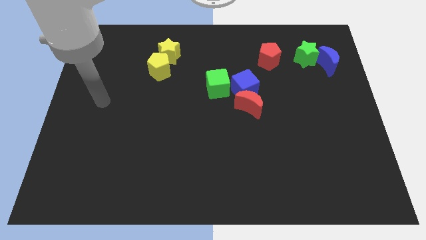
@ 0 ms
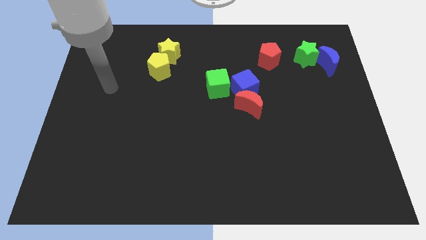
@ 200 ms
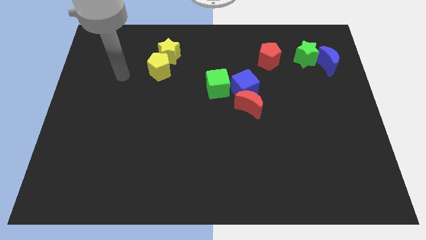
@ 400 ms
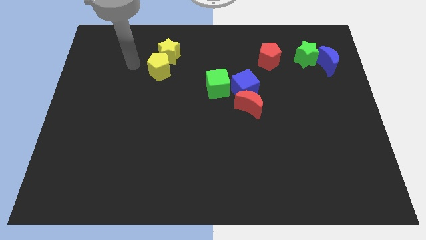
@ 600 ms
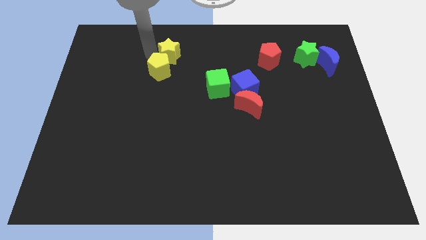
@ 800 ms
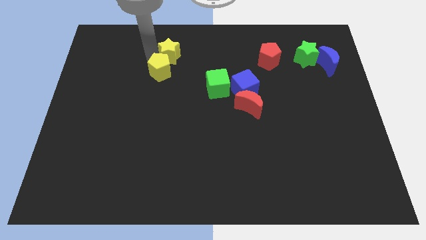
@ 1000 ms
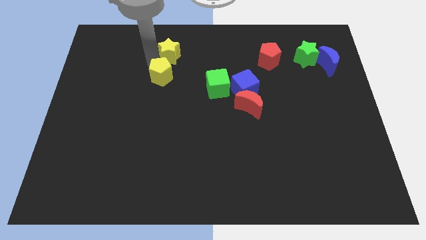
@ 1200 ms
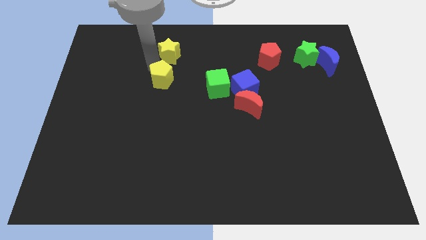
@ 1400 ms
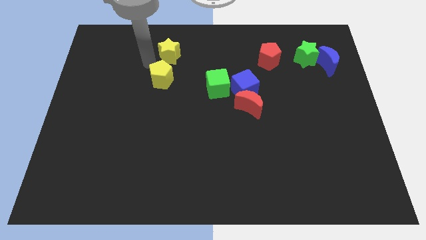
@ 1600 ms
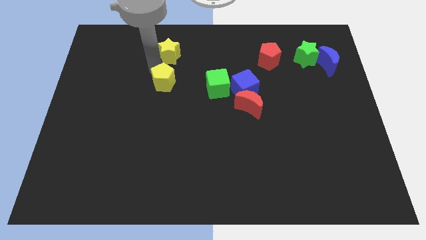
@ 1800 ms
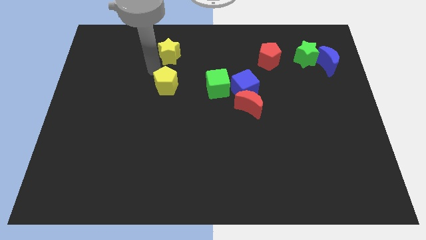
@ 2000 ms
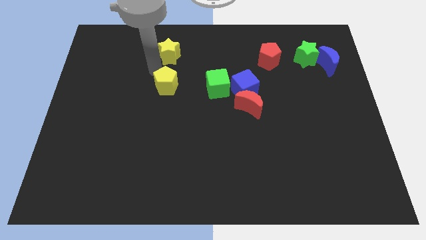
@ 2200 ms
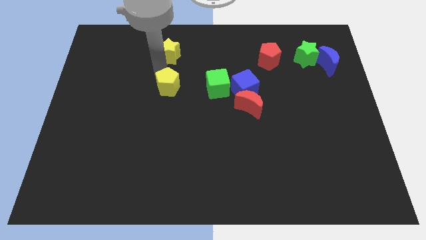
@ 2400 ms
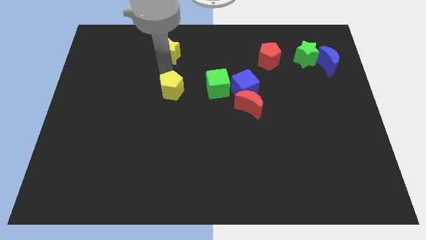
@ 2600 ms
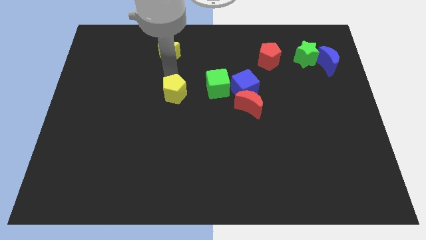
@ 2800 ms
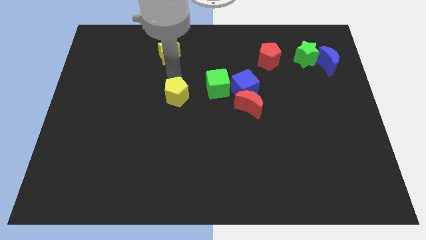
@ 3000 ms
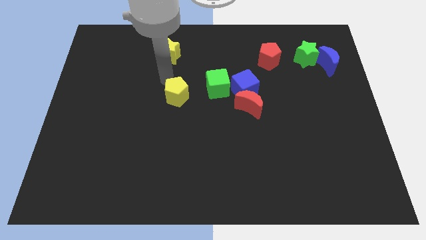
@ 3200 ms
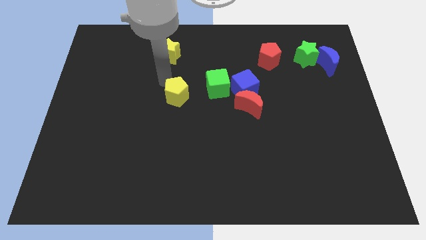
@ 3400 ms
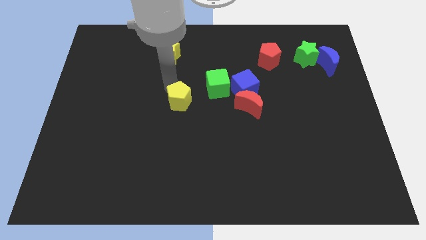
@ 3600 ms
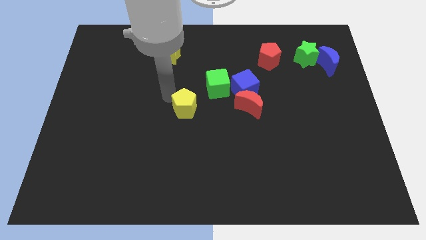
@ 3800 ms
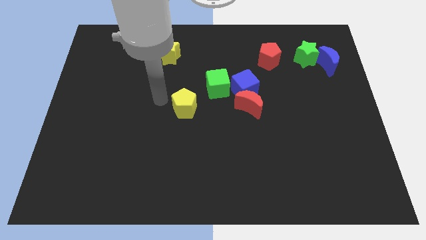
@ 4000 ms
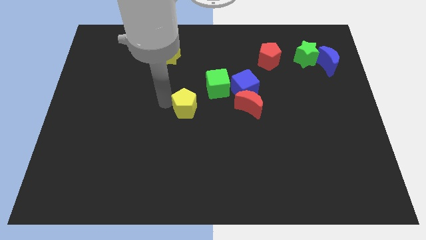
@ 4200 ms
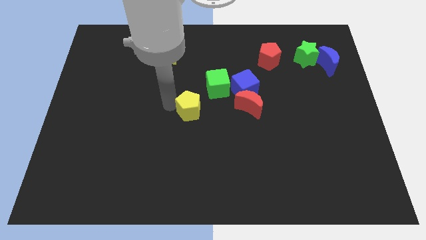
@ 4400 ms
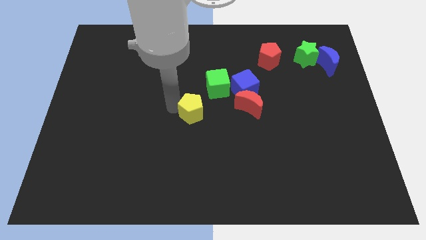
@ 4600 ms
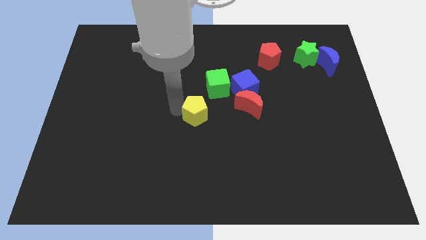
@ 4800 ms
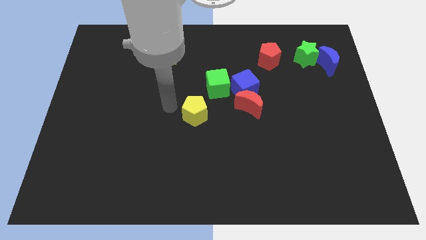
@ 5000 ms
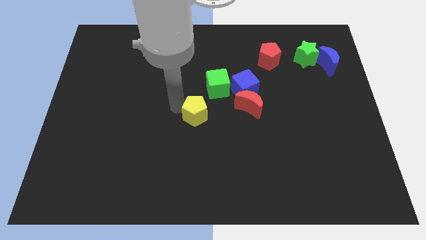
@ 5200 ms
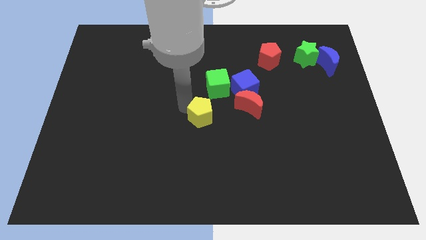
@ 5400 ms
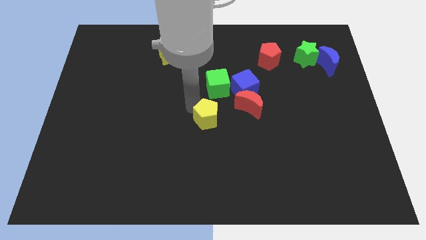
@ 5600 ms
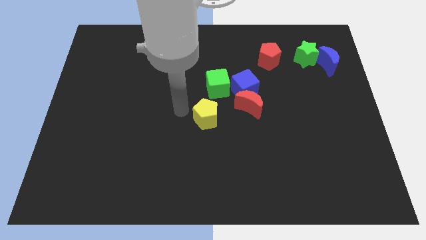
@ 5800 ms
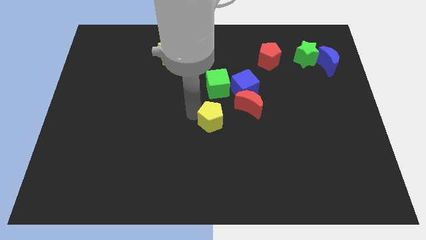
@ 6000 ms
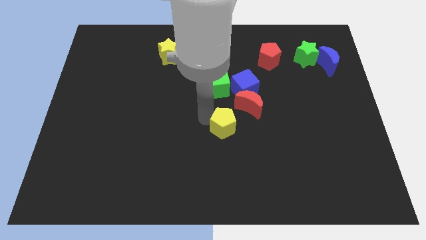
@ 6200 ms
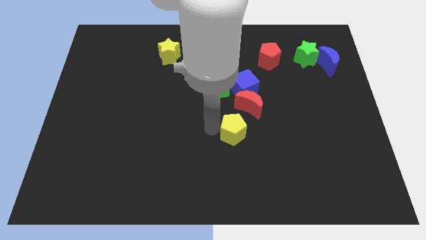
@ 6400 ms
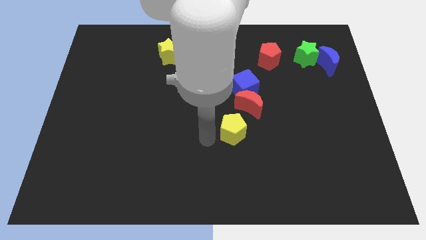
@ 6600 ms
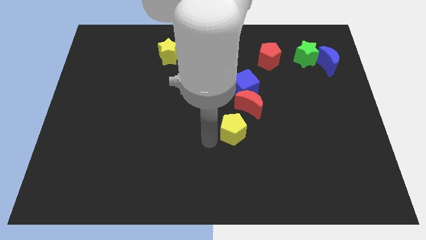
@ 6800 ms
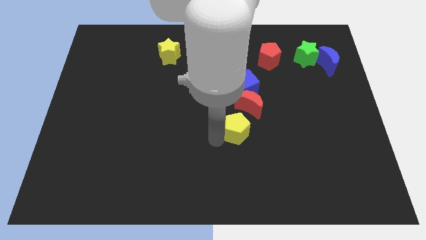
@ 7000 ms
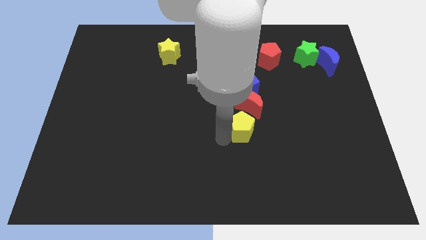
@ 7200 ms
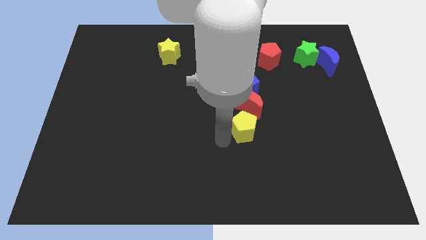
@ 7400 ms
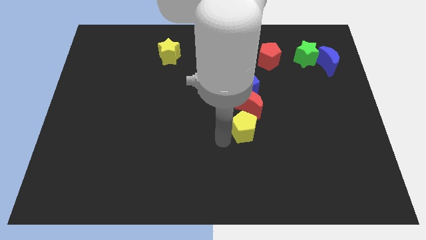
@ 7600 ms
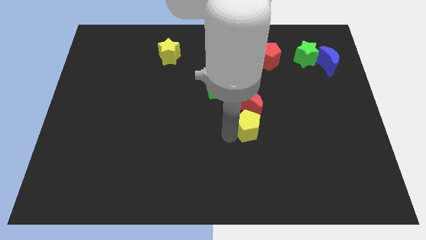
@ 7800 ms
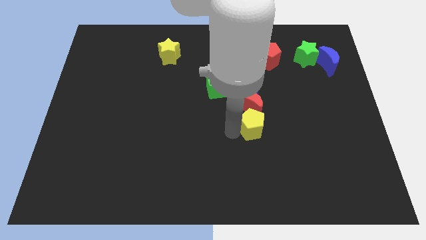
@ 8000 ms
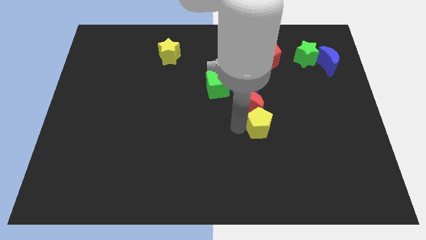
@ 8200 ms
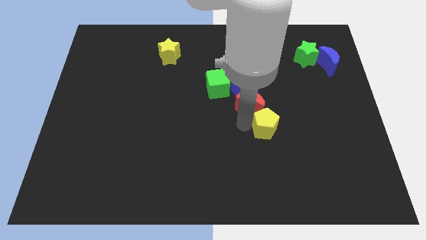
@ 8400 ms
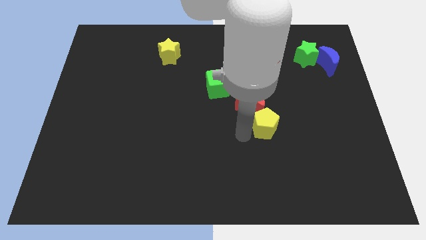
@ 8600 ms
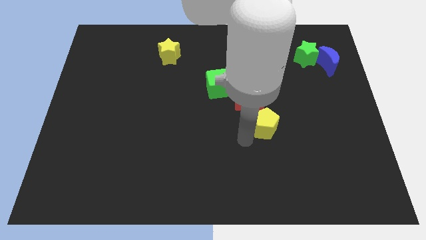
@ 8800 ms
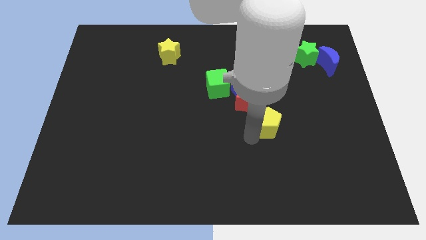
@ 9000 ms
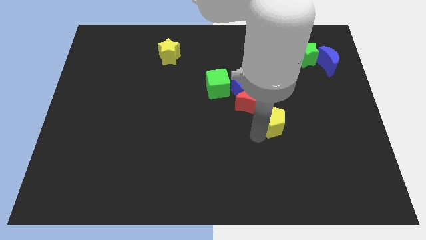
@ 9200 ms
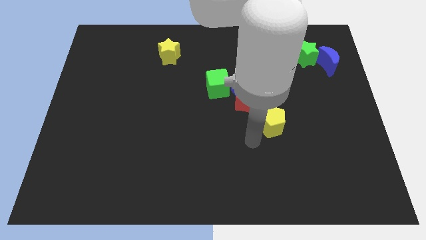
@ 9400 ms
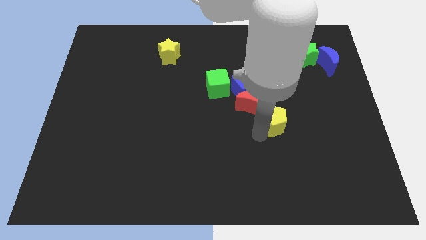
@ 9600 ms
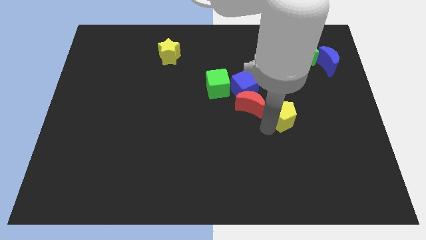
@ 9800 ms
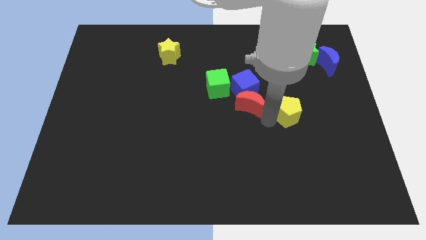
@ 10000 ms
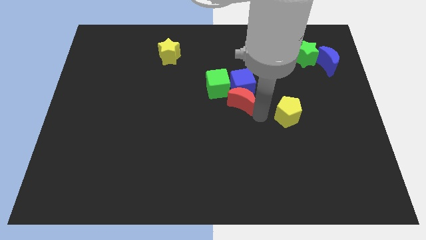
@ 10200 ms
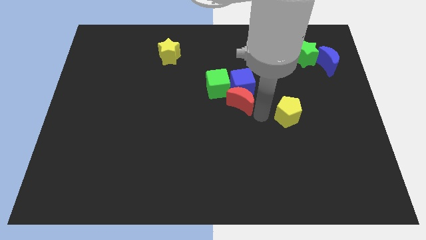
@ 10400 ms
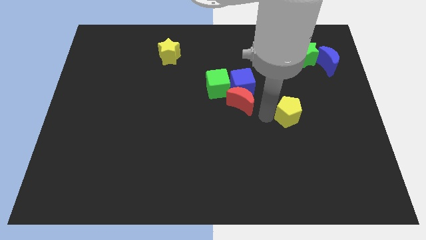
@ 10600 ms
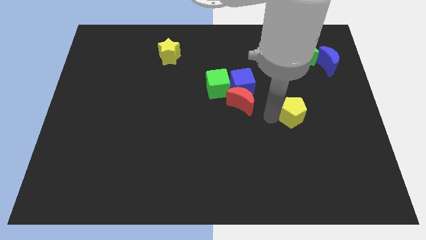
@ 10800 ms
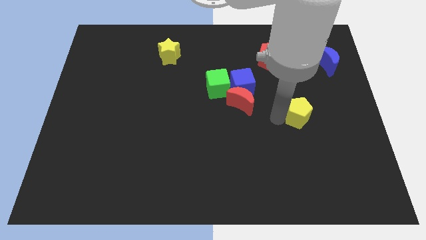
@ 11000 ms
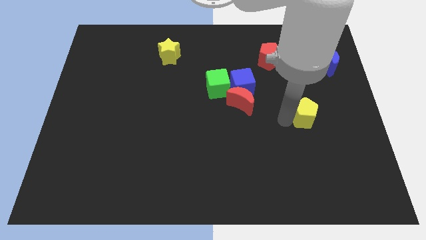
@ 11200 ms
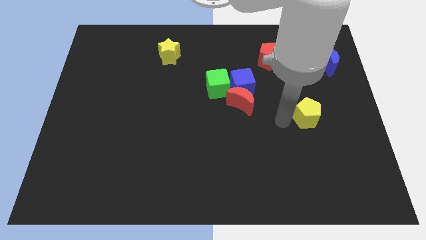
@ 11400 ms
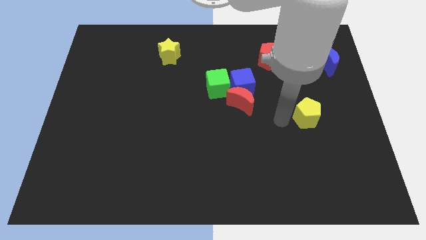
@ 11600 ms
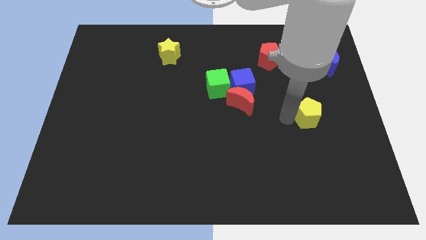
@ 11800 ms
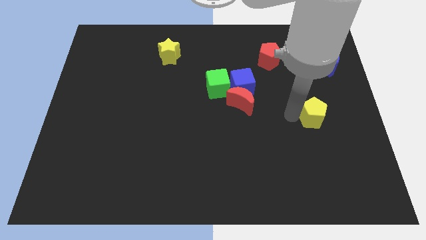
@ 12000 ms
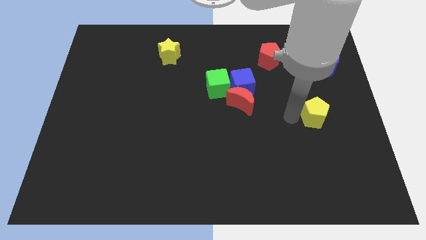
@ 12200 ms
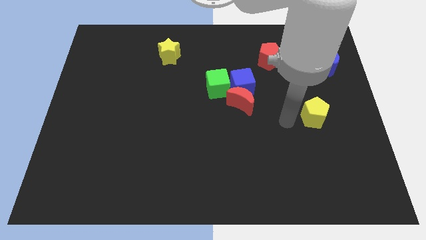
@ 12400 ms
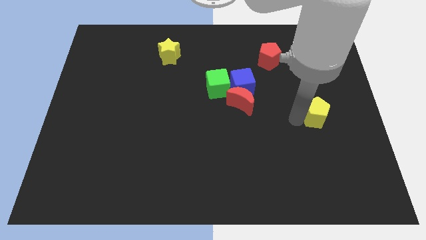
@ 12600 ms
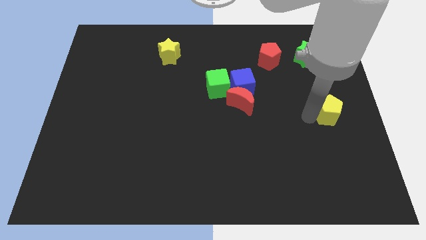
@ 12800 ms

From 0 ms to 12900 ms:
put the yellow pentagon to the right side

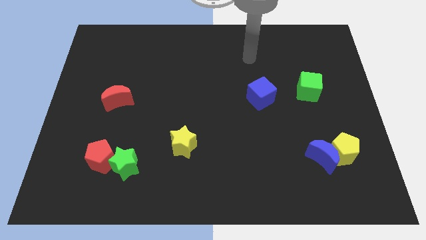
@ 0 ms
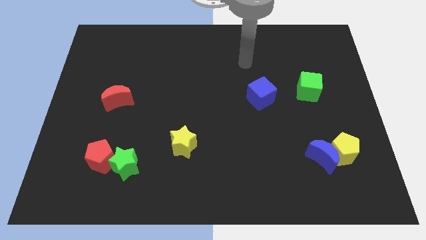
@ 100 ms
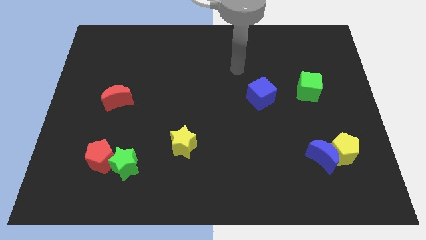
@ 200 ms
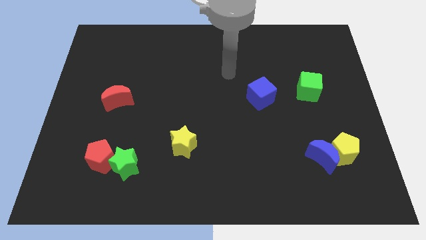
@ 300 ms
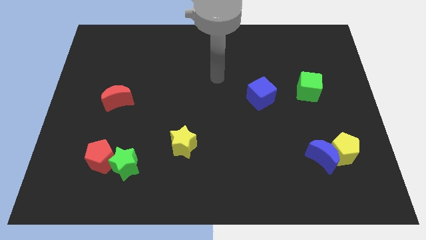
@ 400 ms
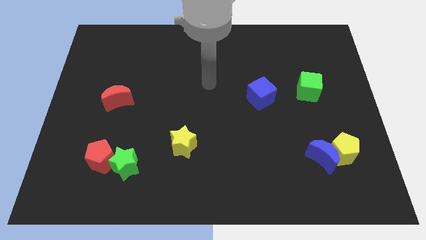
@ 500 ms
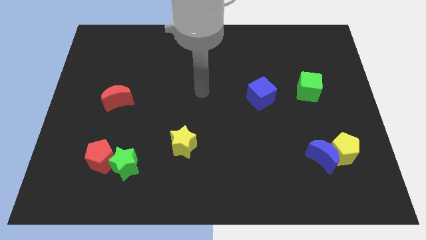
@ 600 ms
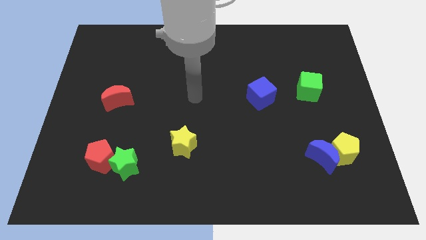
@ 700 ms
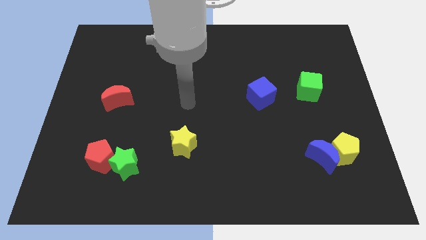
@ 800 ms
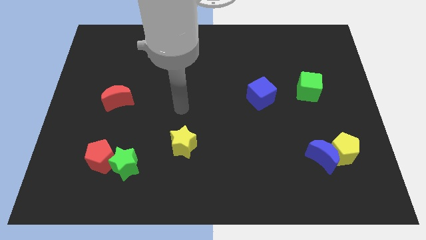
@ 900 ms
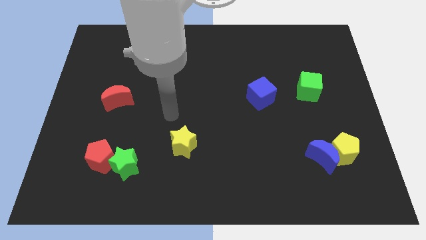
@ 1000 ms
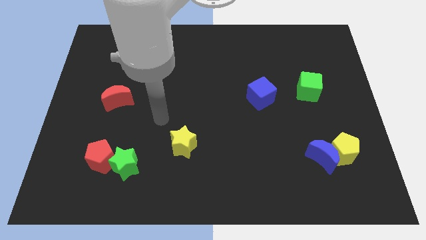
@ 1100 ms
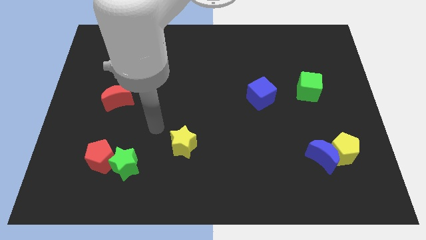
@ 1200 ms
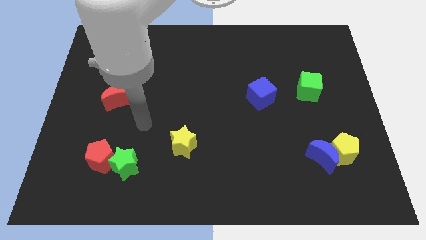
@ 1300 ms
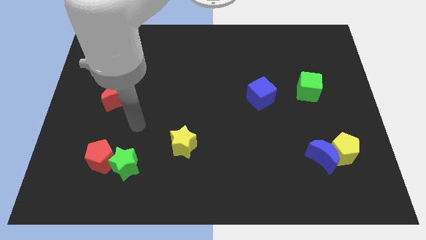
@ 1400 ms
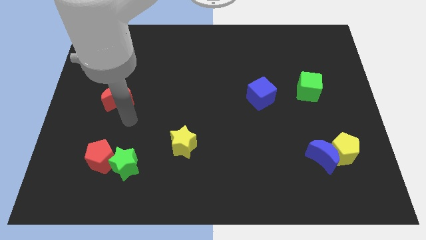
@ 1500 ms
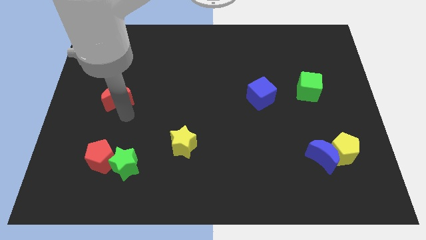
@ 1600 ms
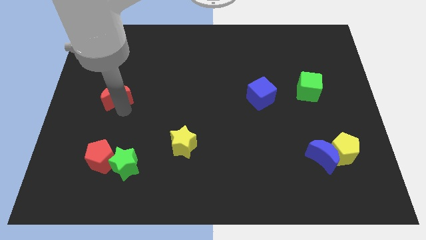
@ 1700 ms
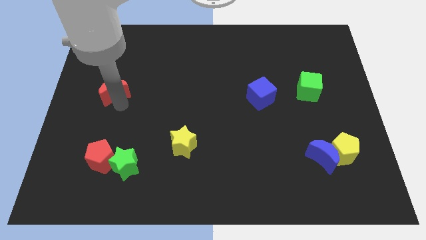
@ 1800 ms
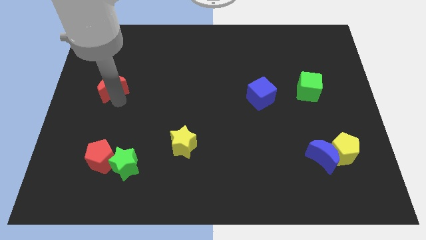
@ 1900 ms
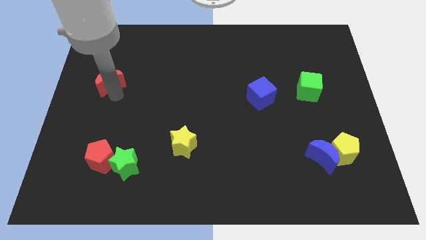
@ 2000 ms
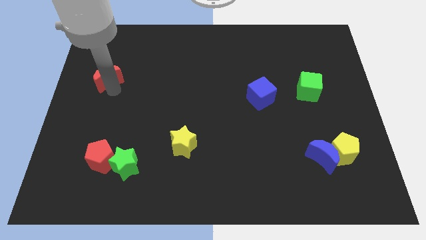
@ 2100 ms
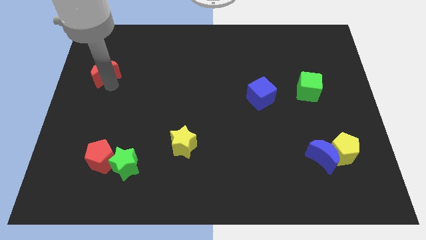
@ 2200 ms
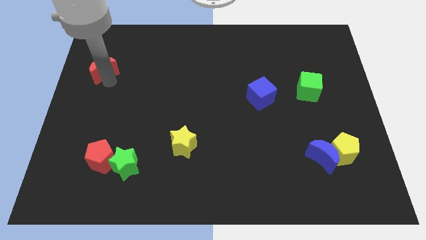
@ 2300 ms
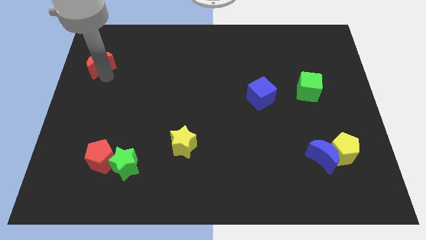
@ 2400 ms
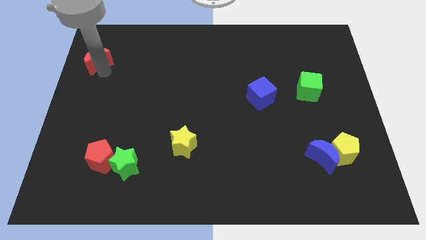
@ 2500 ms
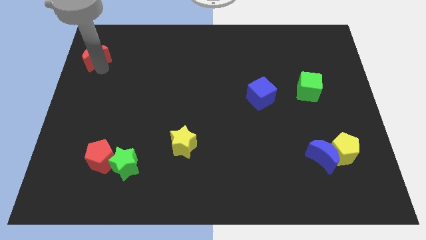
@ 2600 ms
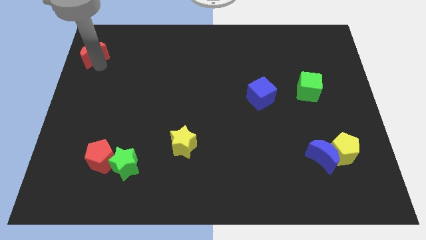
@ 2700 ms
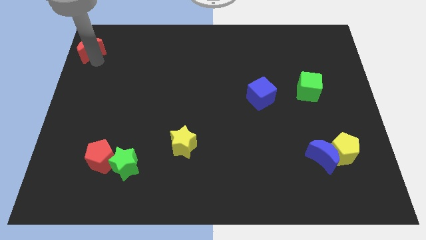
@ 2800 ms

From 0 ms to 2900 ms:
slide the red moon to the top left
